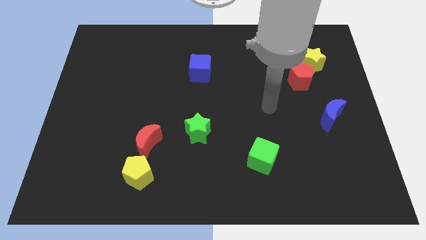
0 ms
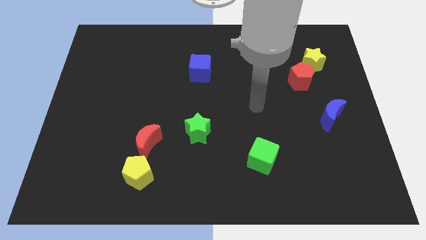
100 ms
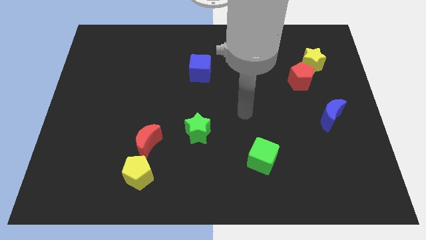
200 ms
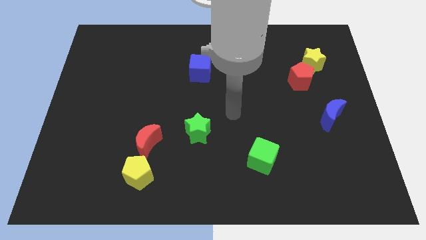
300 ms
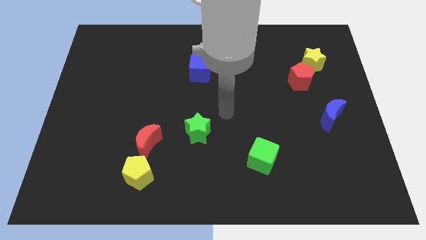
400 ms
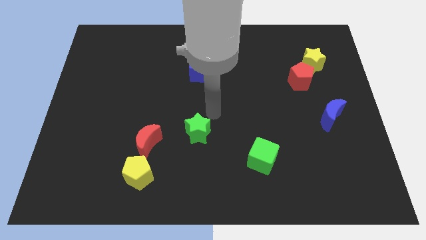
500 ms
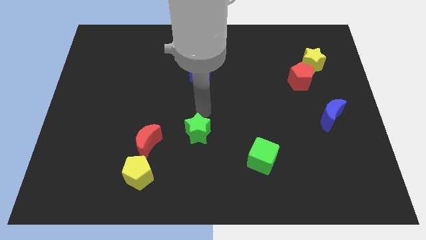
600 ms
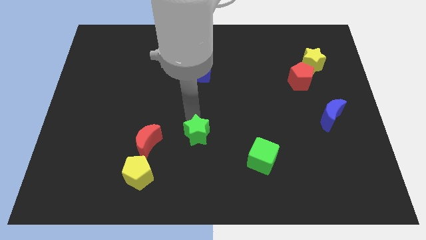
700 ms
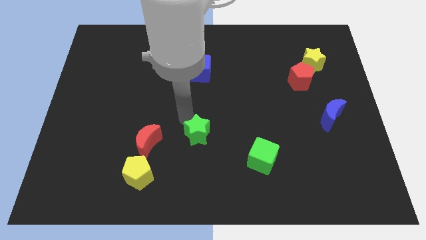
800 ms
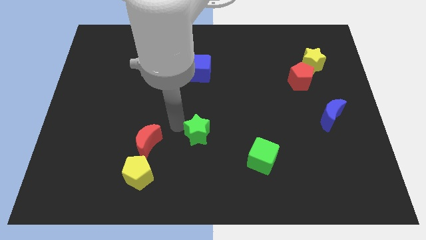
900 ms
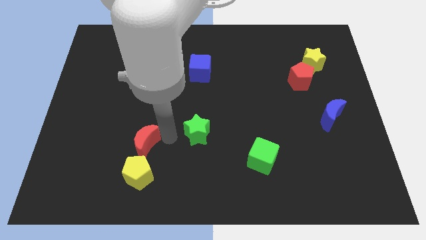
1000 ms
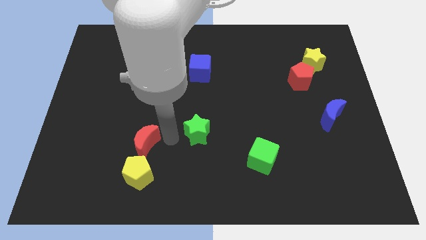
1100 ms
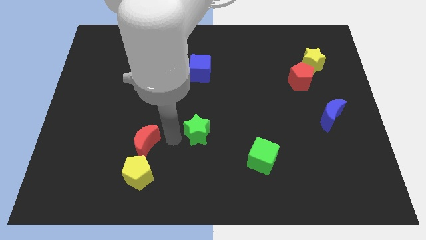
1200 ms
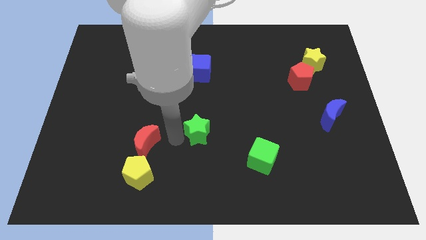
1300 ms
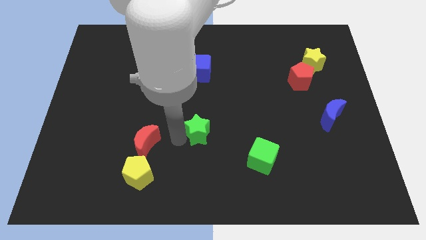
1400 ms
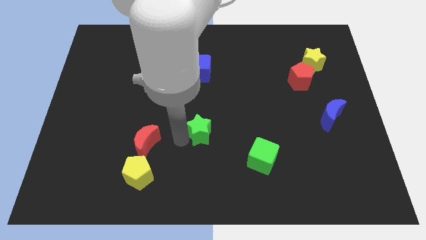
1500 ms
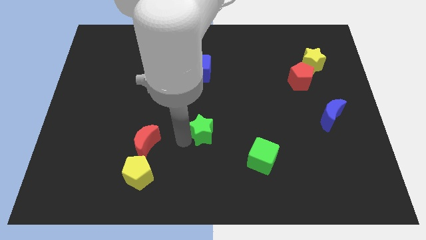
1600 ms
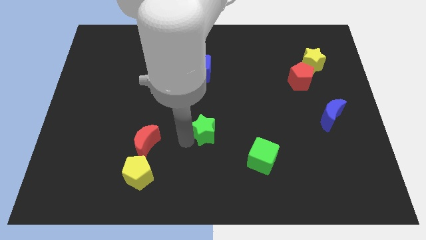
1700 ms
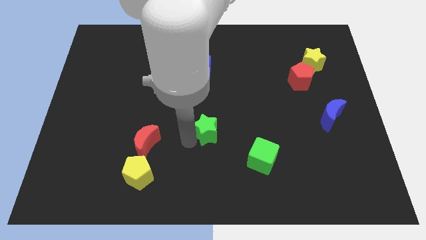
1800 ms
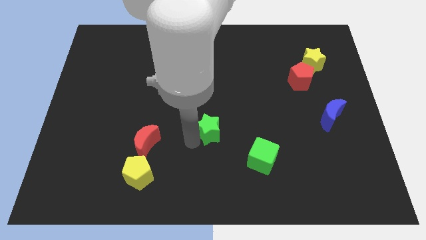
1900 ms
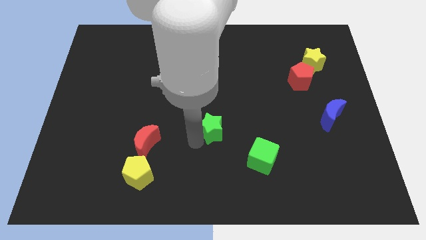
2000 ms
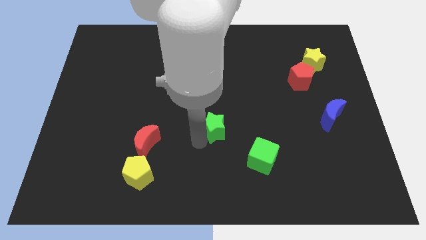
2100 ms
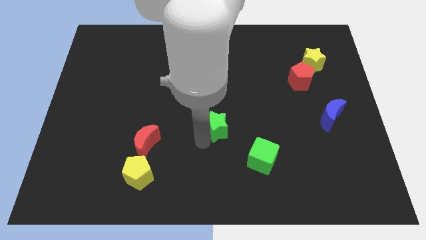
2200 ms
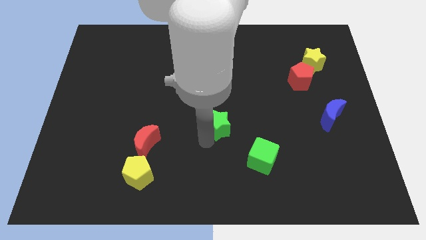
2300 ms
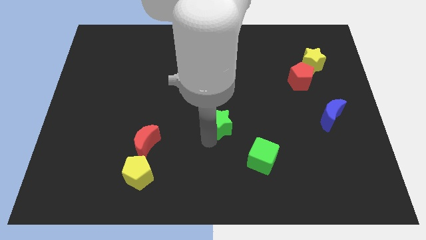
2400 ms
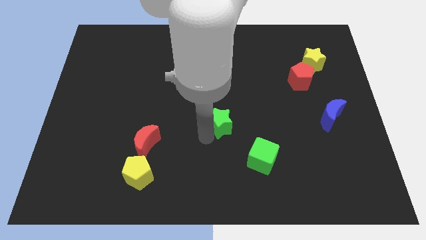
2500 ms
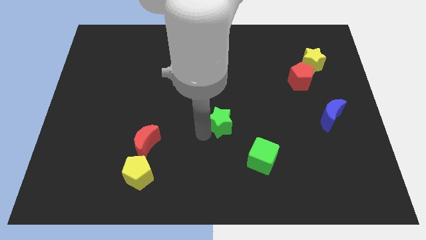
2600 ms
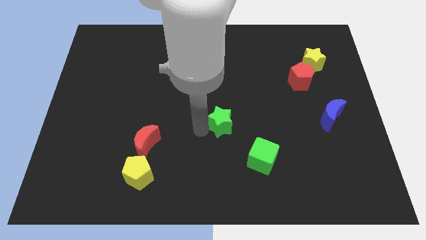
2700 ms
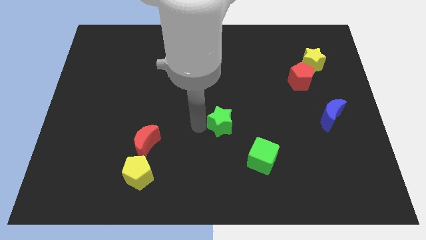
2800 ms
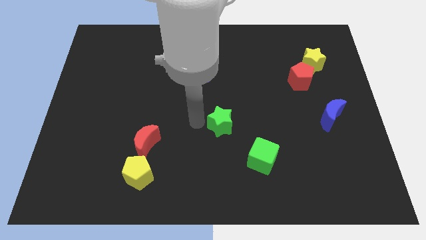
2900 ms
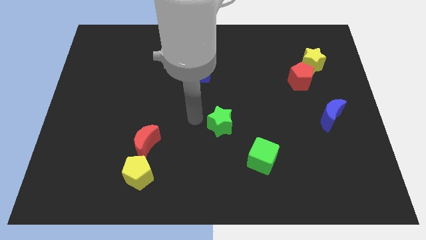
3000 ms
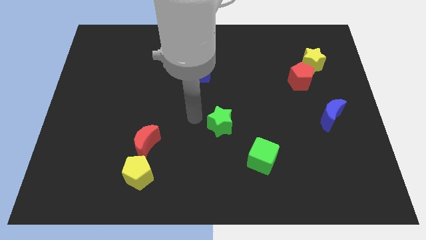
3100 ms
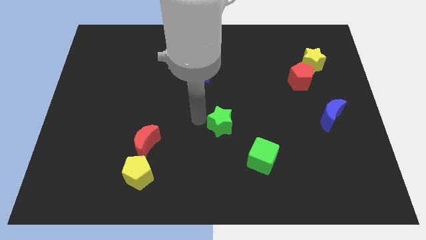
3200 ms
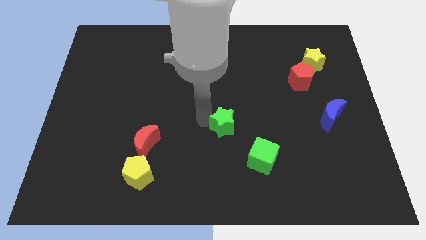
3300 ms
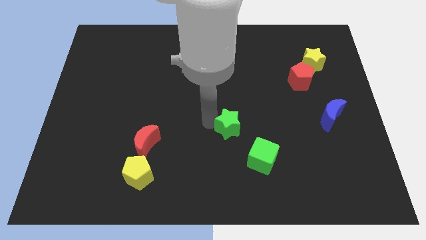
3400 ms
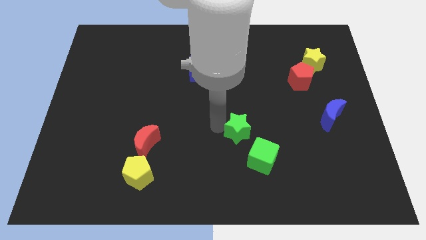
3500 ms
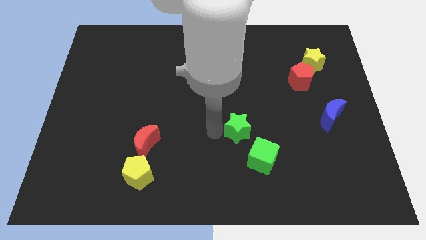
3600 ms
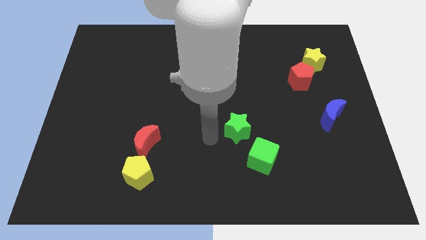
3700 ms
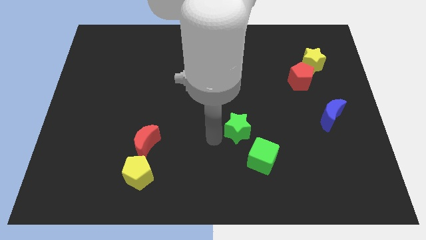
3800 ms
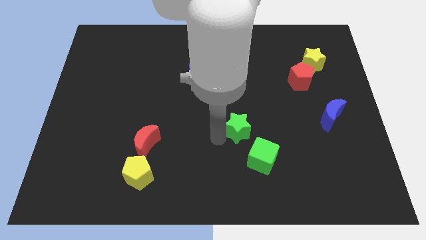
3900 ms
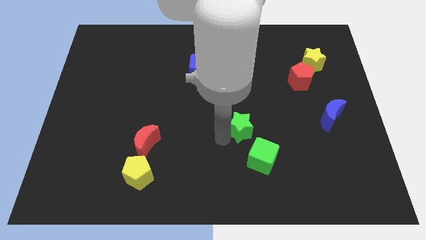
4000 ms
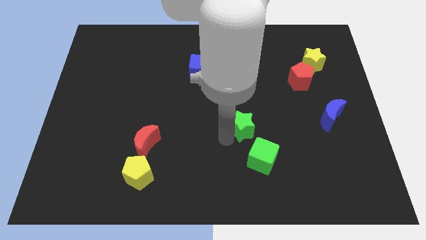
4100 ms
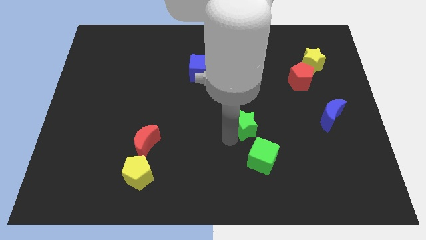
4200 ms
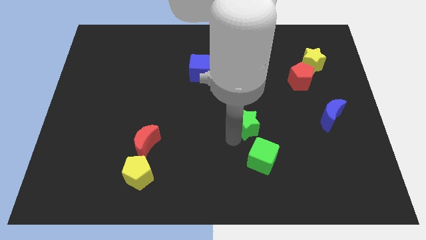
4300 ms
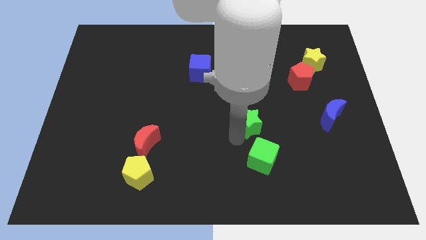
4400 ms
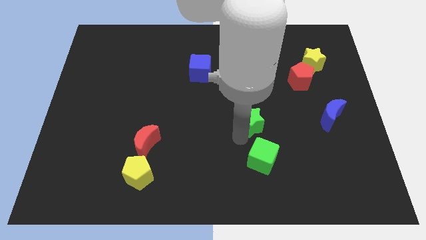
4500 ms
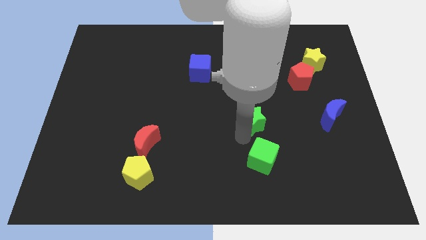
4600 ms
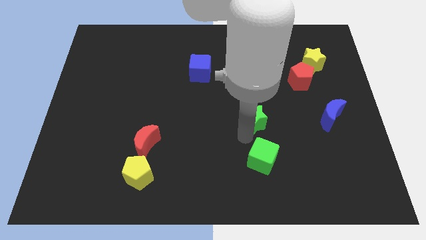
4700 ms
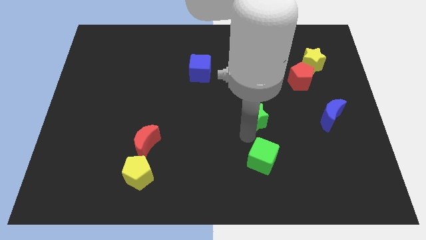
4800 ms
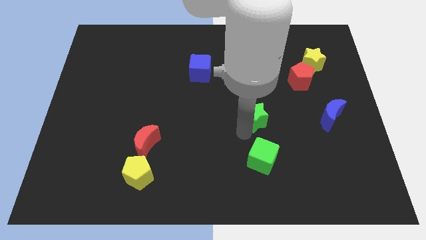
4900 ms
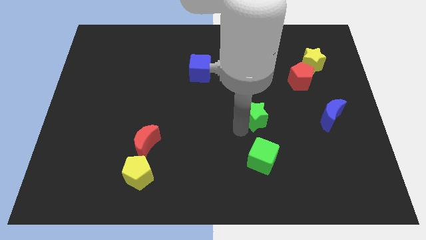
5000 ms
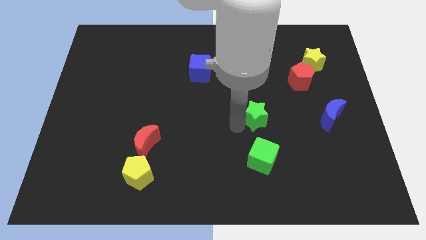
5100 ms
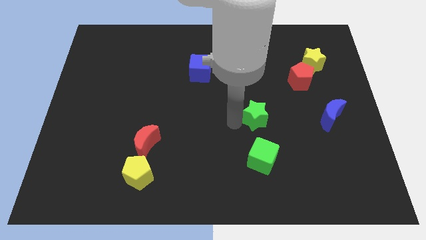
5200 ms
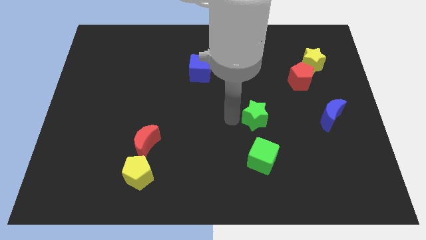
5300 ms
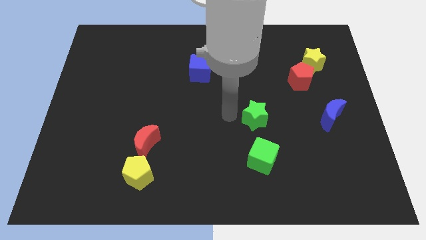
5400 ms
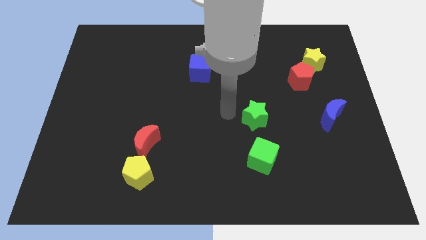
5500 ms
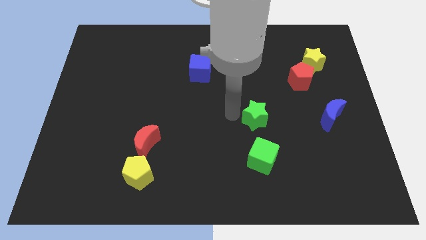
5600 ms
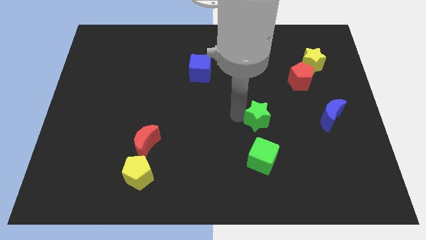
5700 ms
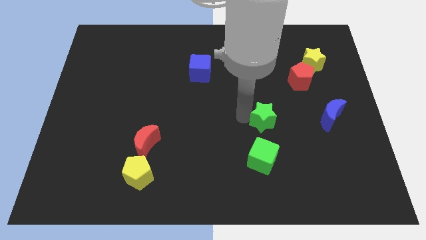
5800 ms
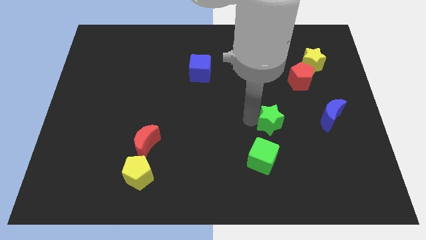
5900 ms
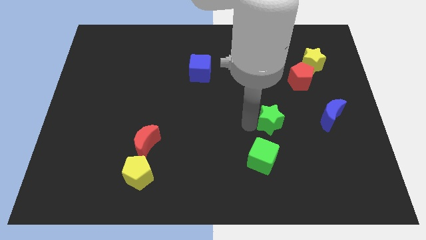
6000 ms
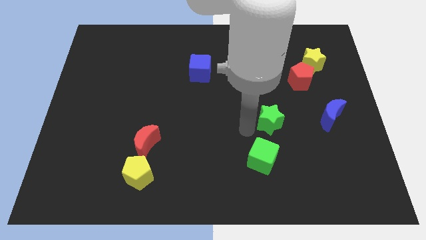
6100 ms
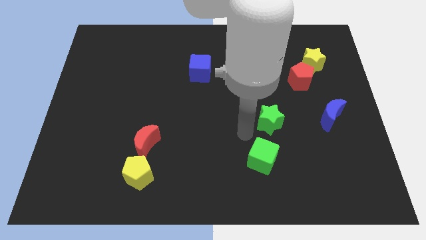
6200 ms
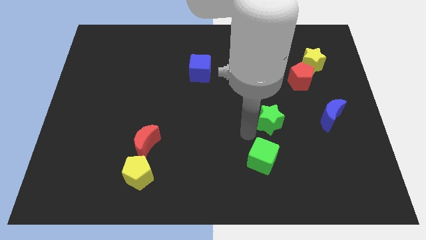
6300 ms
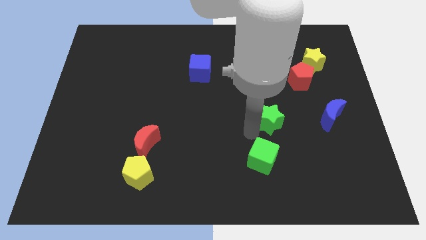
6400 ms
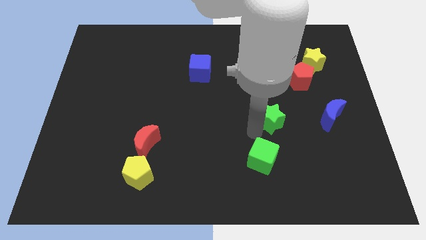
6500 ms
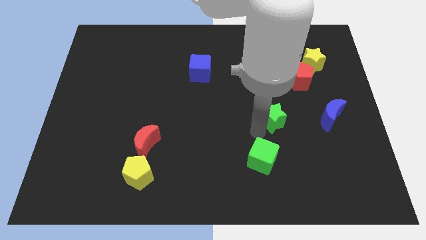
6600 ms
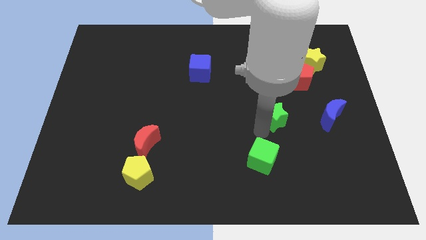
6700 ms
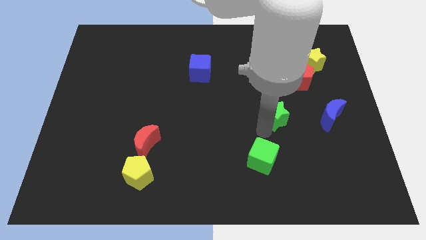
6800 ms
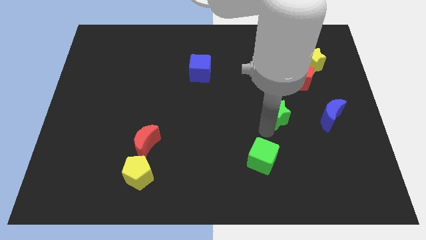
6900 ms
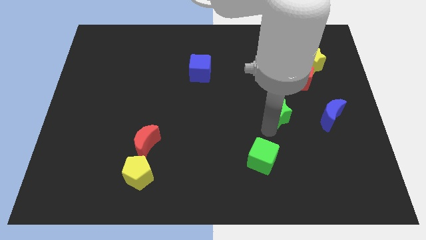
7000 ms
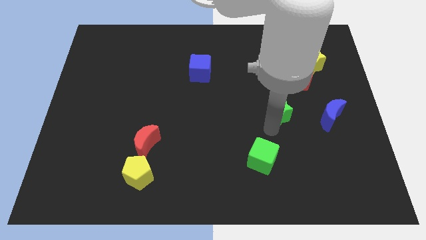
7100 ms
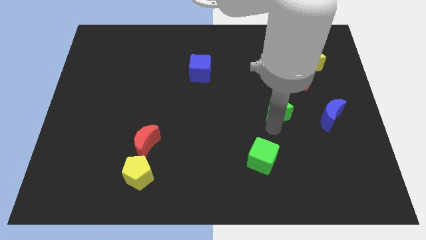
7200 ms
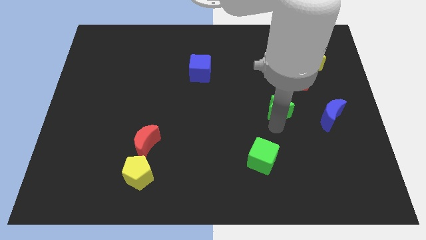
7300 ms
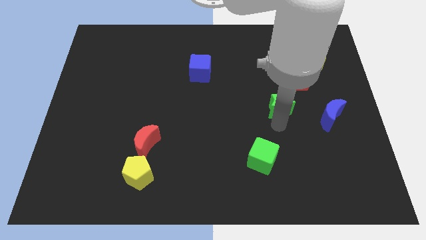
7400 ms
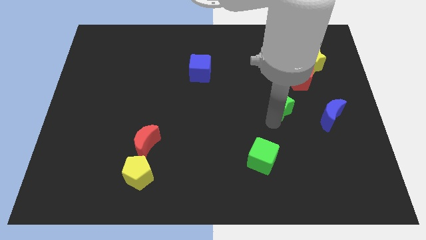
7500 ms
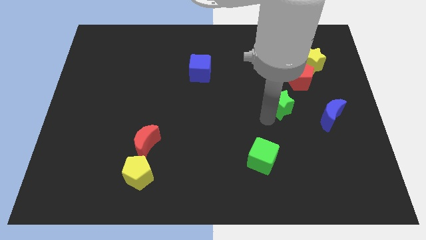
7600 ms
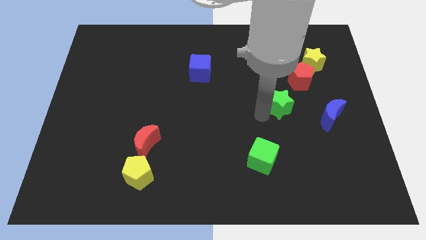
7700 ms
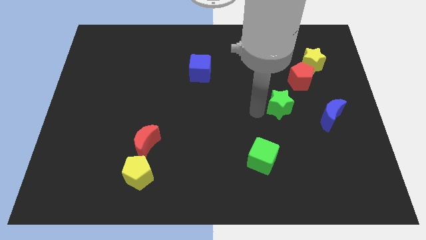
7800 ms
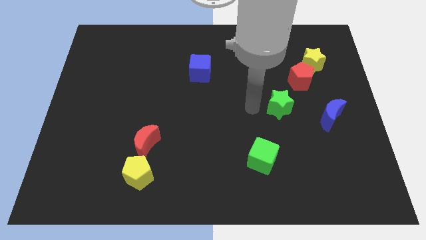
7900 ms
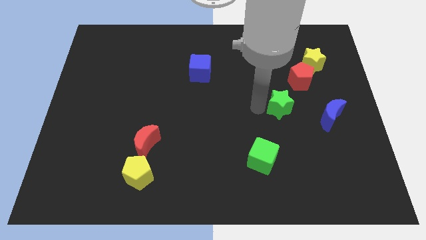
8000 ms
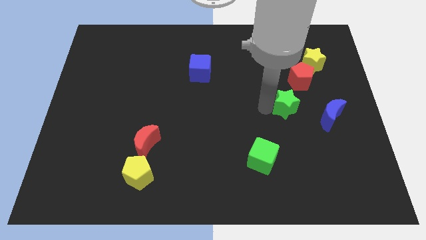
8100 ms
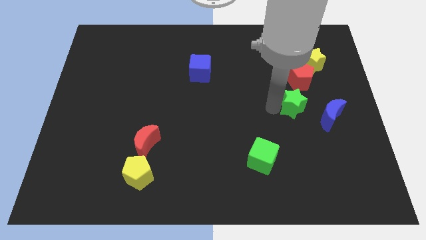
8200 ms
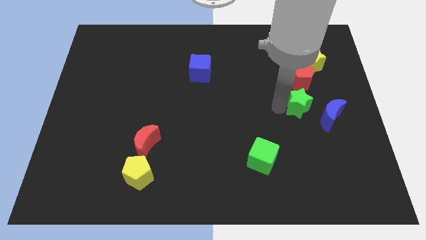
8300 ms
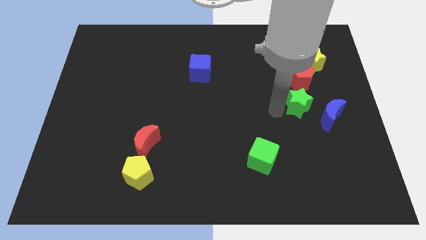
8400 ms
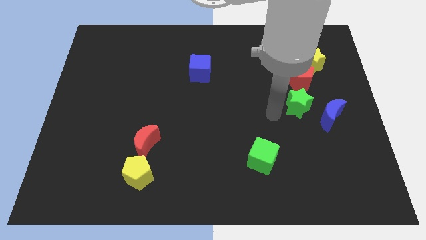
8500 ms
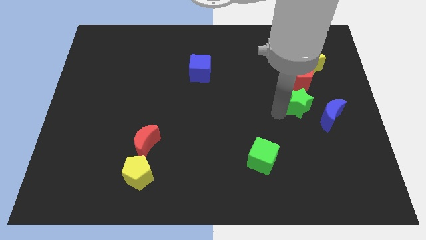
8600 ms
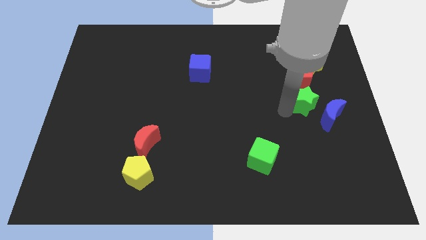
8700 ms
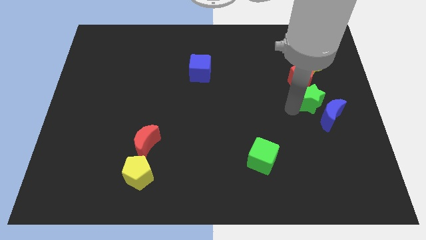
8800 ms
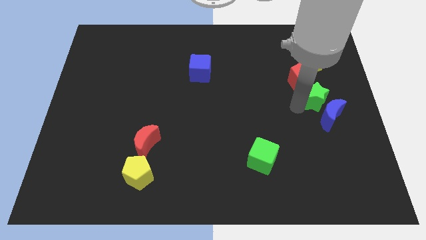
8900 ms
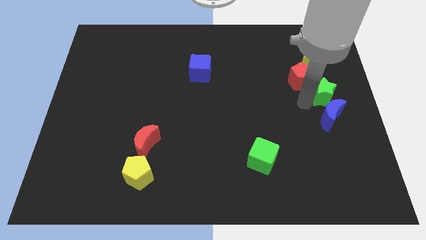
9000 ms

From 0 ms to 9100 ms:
move the green star to the right side of the board
